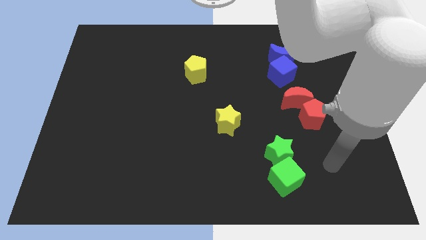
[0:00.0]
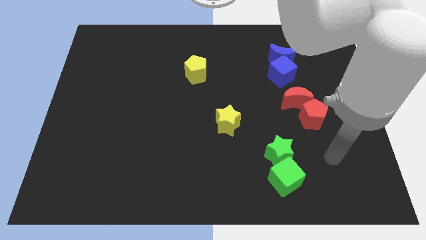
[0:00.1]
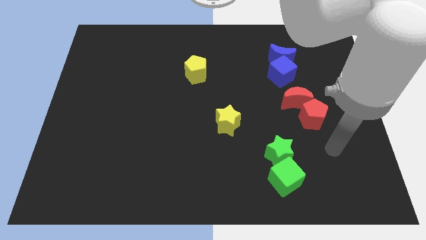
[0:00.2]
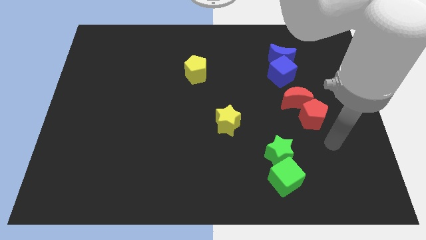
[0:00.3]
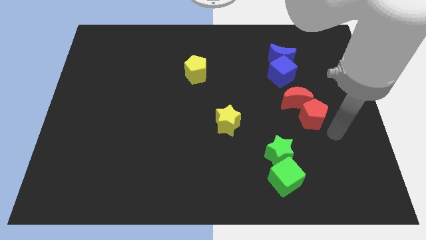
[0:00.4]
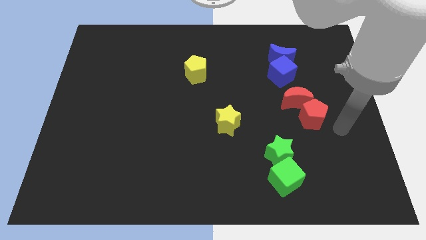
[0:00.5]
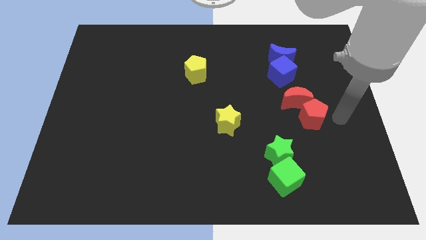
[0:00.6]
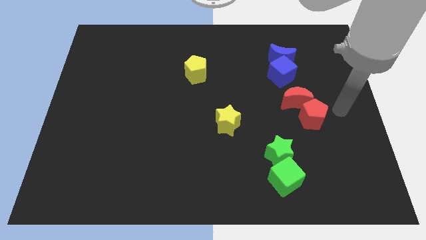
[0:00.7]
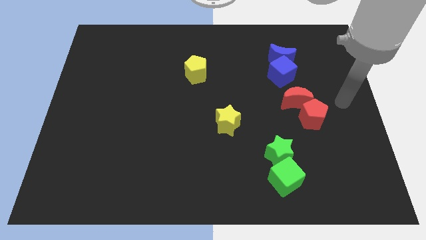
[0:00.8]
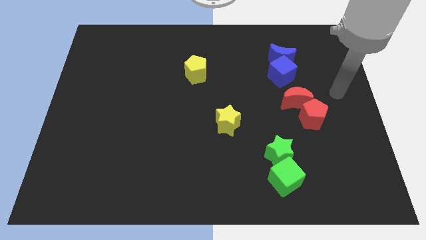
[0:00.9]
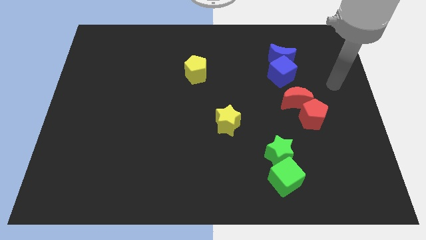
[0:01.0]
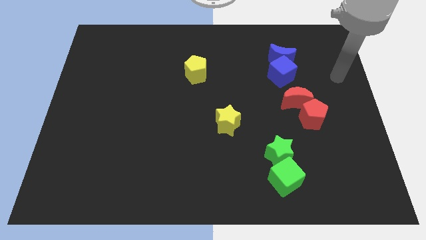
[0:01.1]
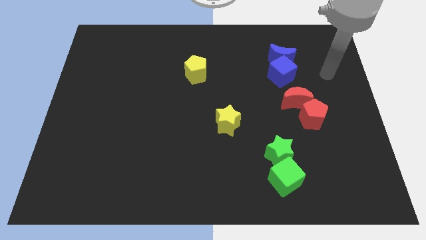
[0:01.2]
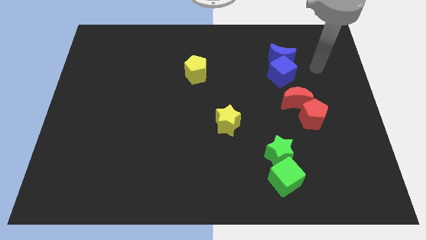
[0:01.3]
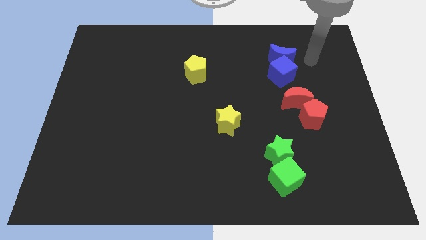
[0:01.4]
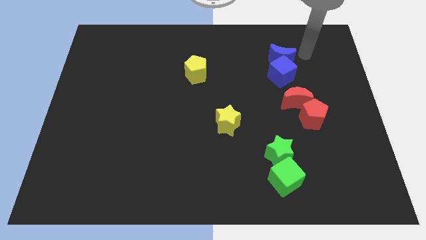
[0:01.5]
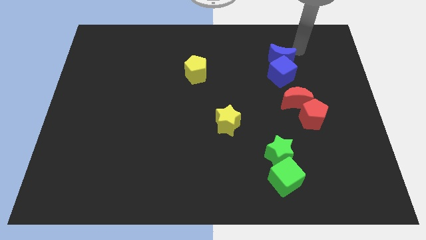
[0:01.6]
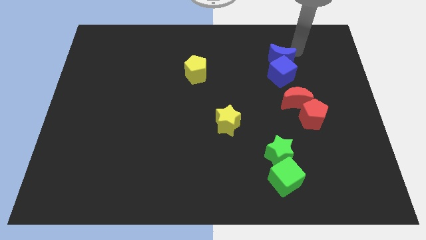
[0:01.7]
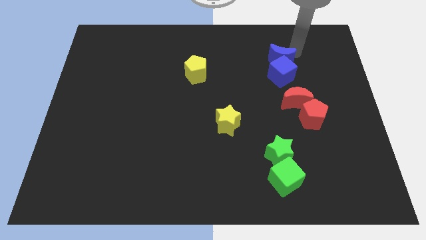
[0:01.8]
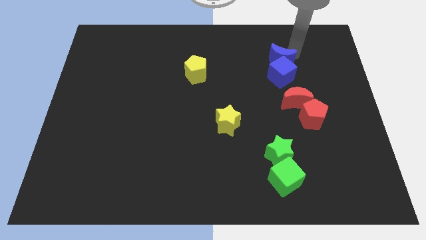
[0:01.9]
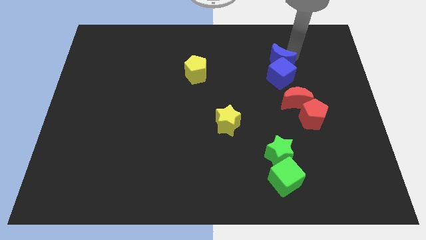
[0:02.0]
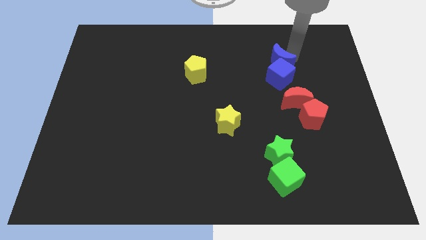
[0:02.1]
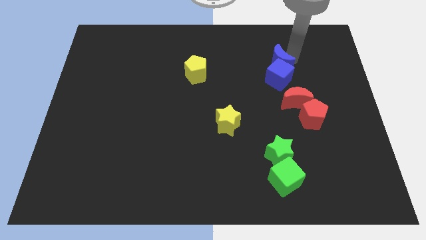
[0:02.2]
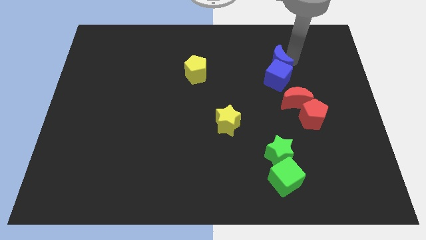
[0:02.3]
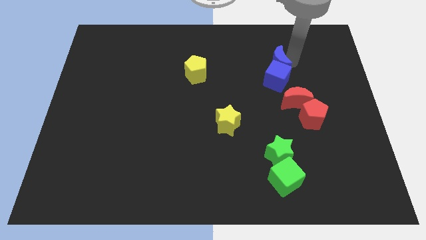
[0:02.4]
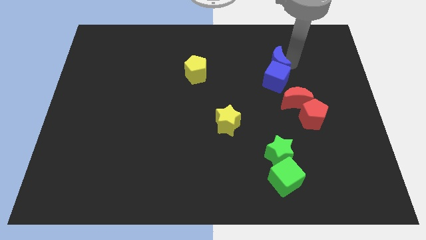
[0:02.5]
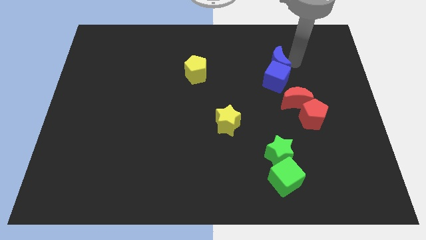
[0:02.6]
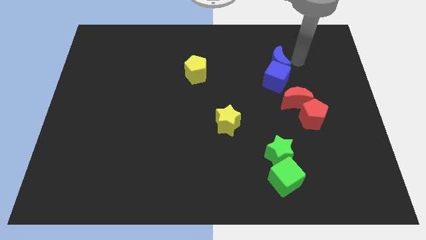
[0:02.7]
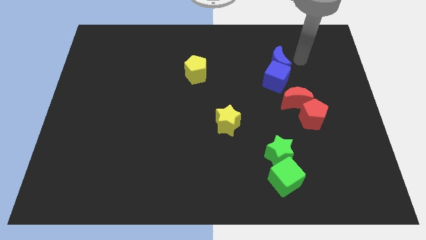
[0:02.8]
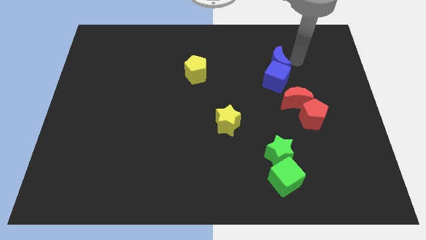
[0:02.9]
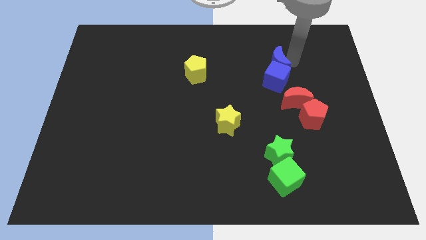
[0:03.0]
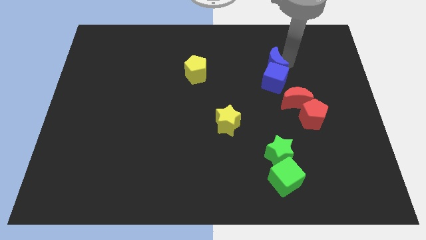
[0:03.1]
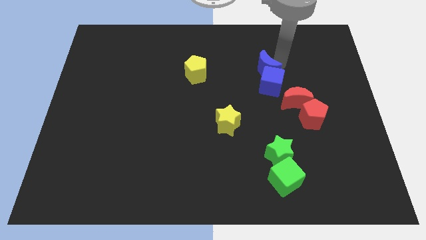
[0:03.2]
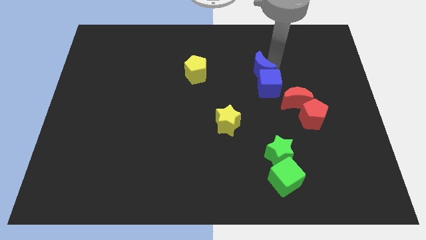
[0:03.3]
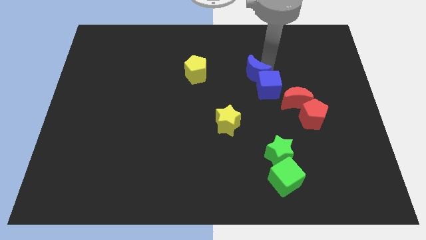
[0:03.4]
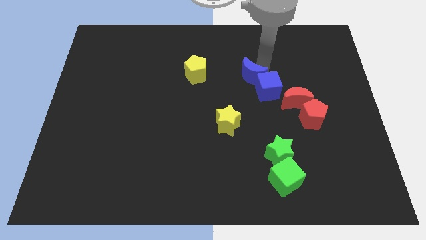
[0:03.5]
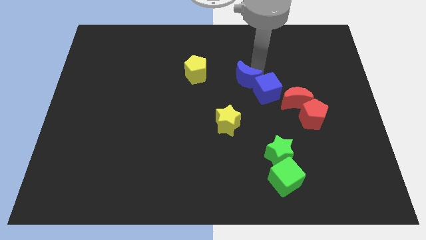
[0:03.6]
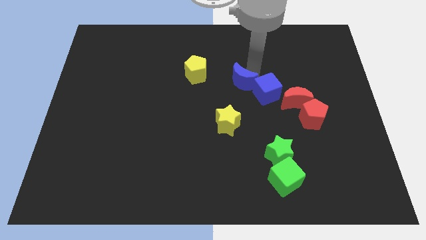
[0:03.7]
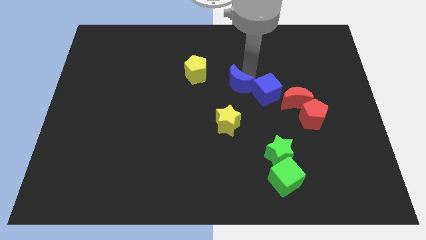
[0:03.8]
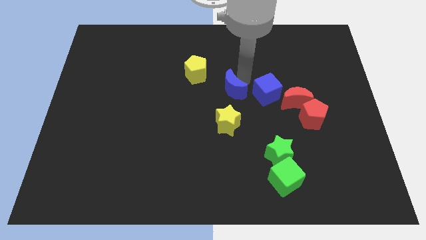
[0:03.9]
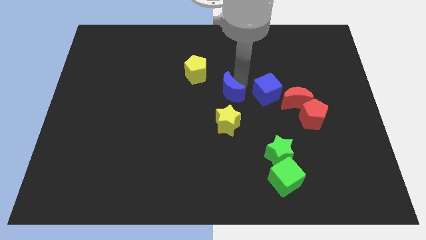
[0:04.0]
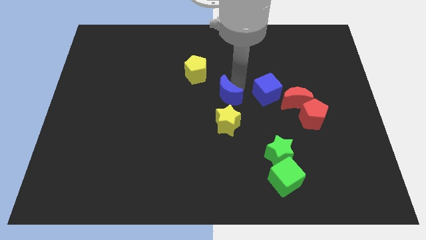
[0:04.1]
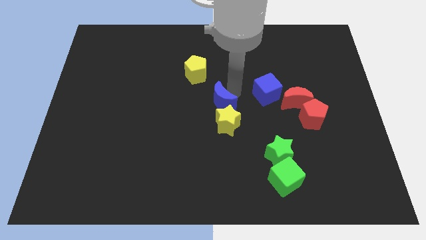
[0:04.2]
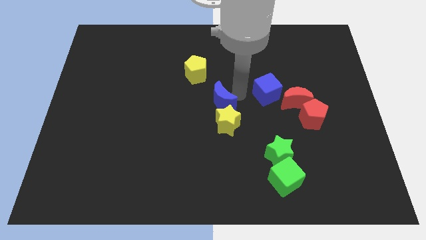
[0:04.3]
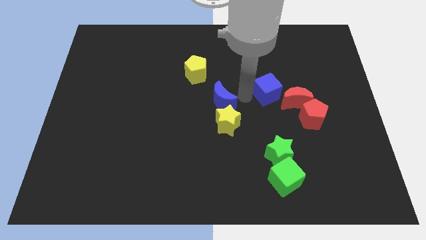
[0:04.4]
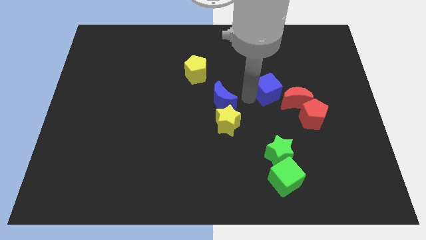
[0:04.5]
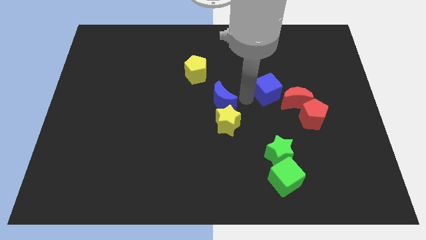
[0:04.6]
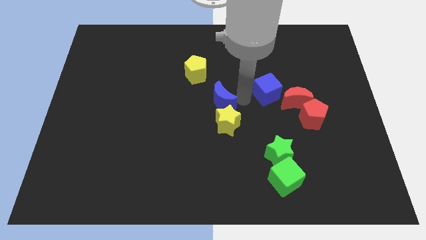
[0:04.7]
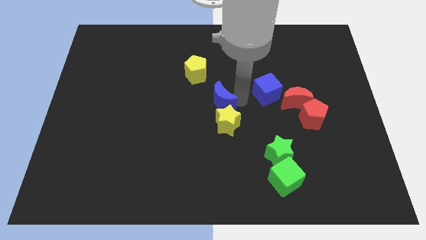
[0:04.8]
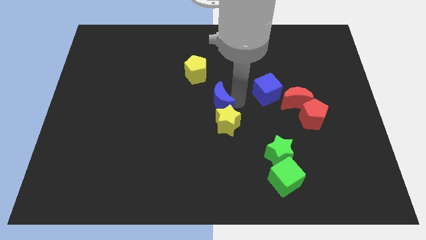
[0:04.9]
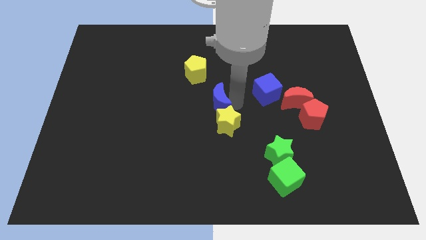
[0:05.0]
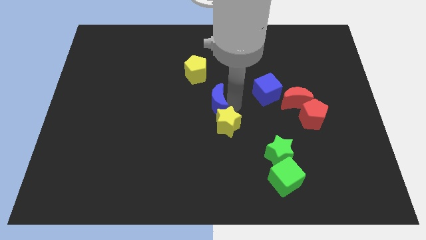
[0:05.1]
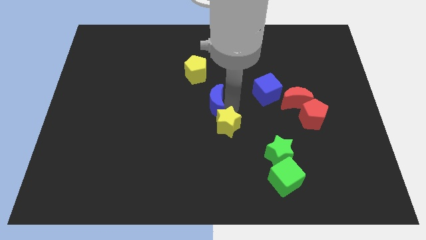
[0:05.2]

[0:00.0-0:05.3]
push the blue moon to the bottom of the yellow pentagon
